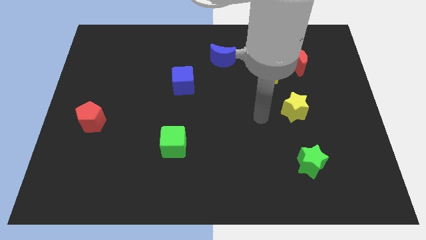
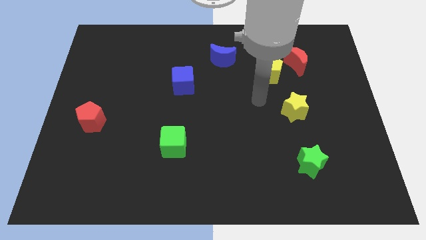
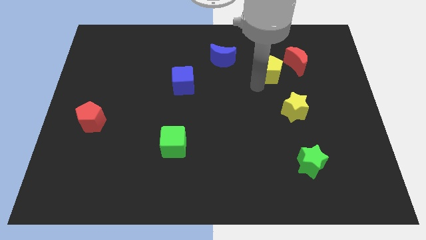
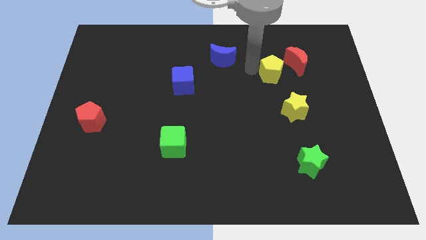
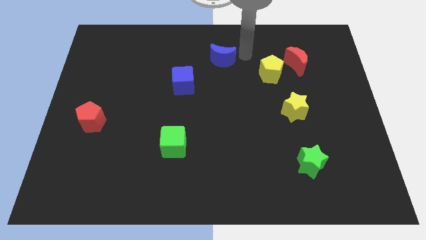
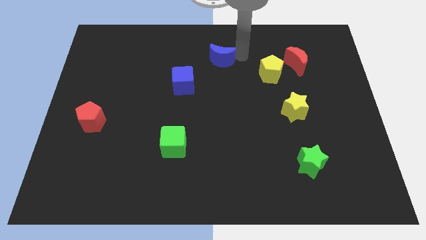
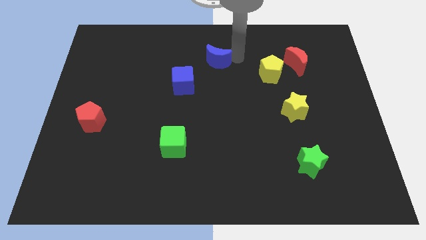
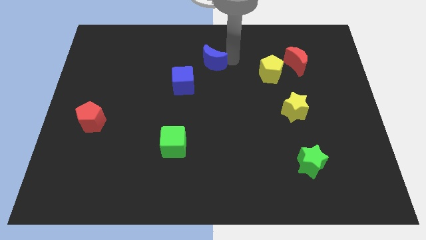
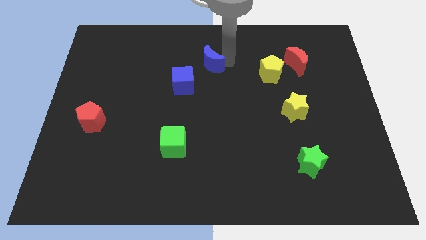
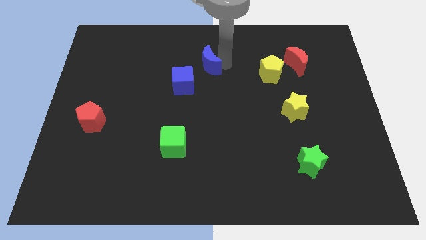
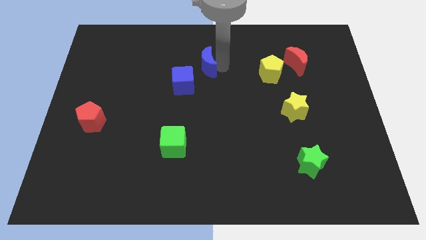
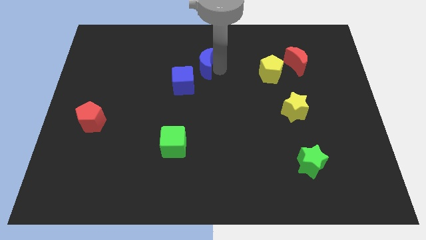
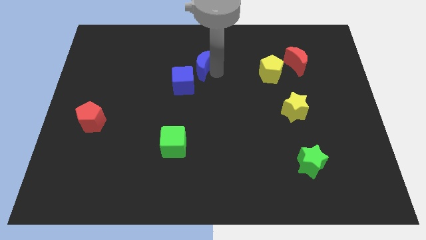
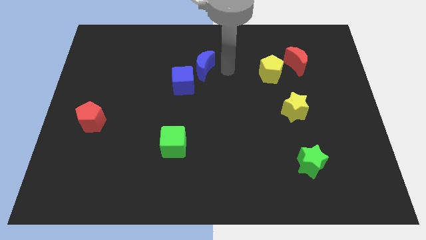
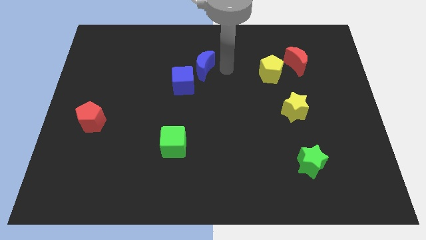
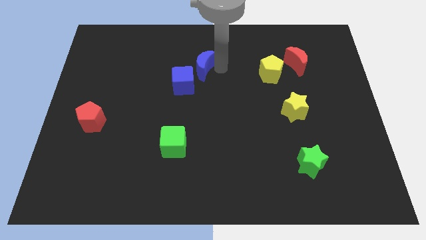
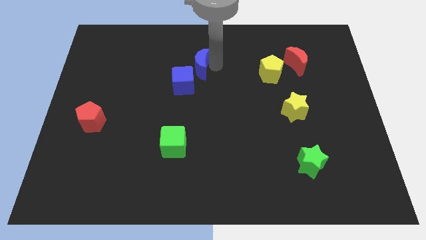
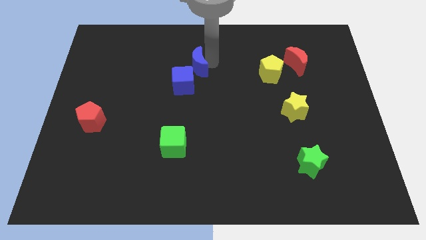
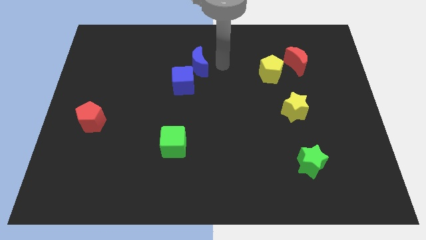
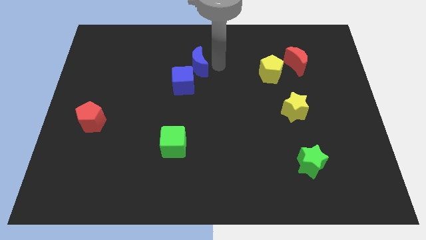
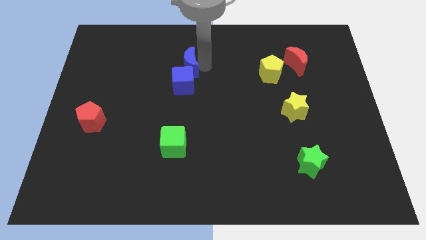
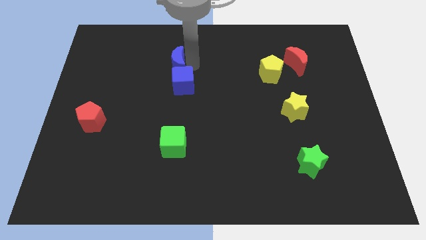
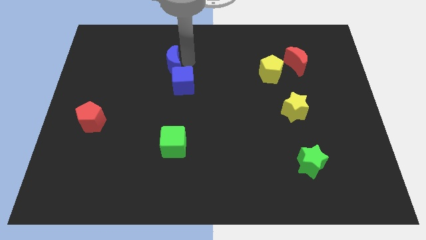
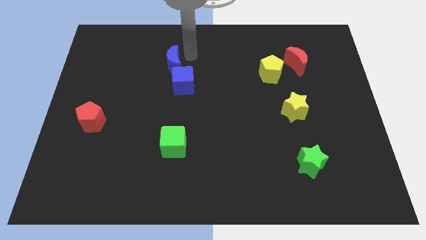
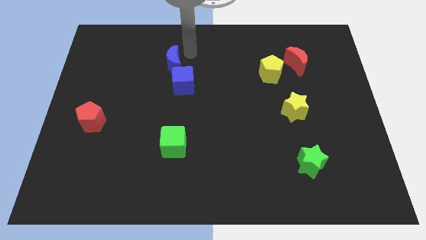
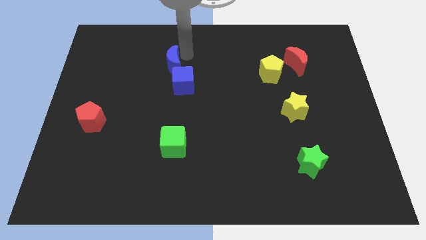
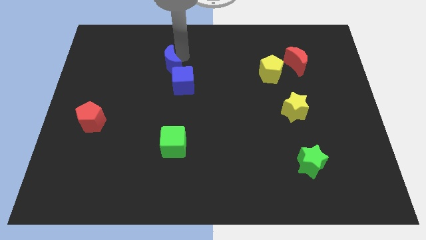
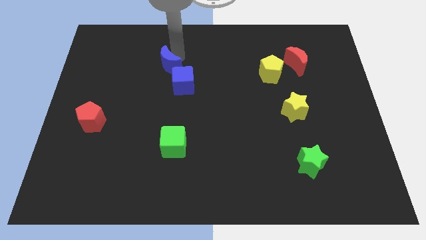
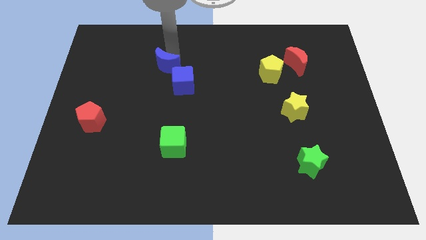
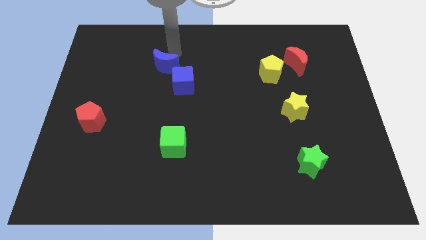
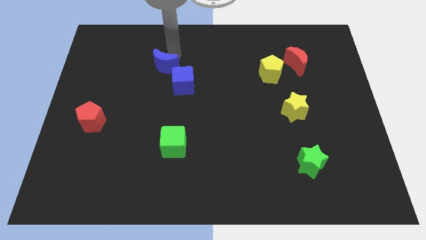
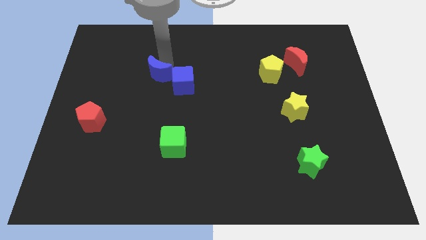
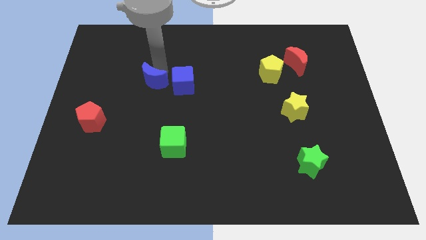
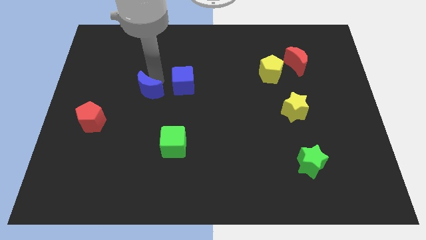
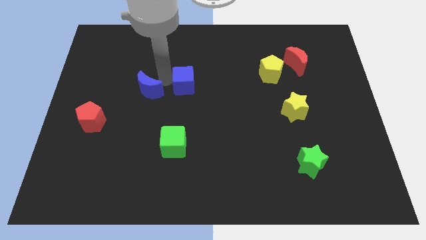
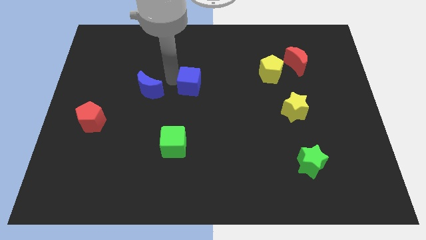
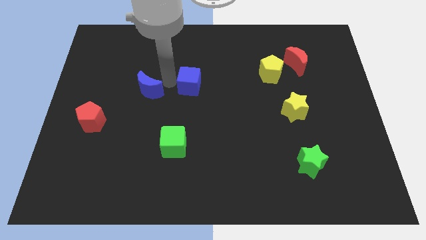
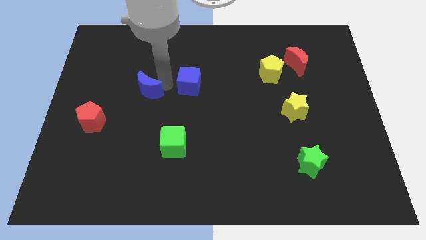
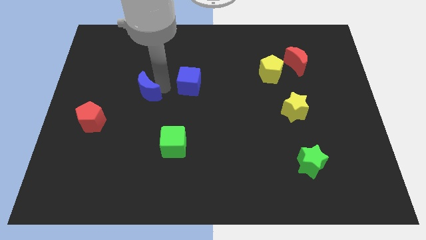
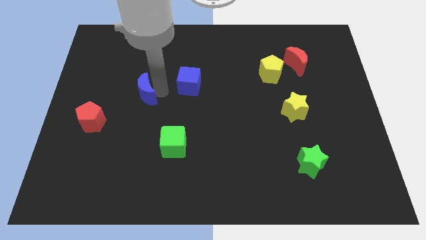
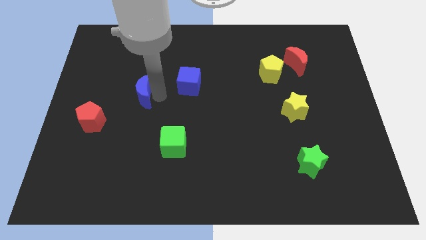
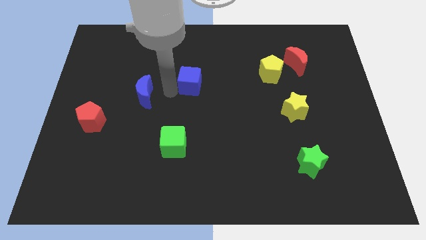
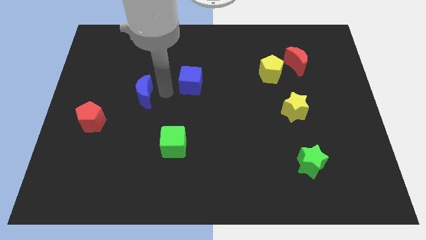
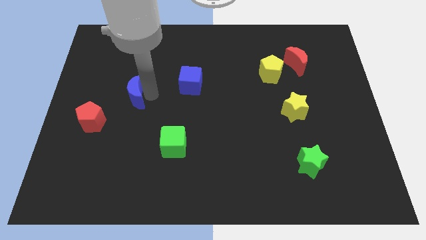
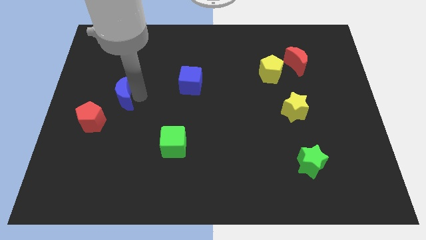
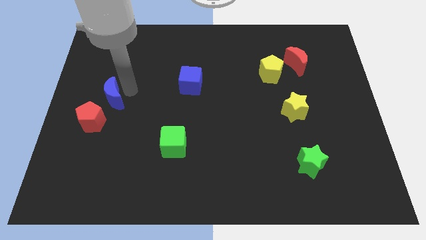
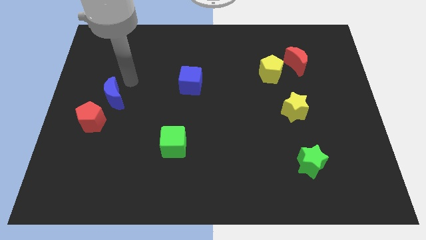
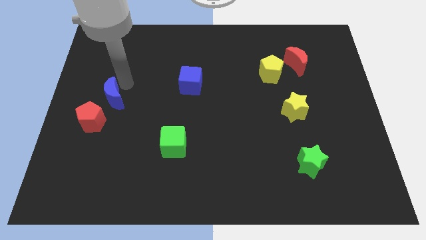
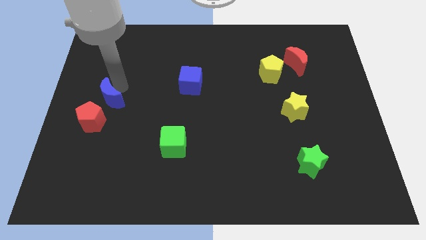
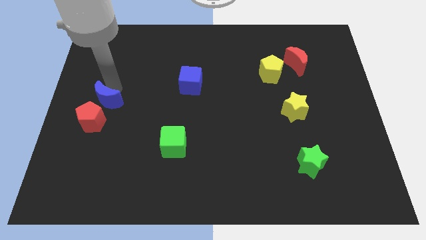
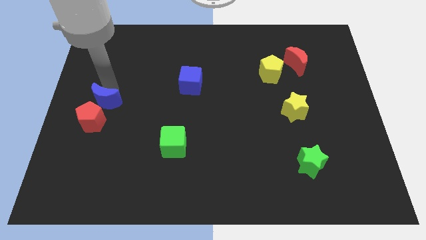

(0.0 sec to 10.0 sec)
put the blue moon close to the red pentagon

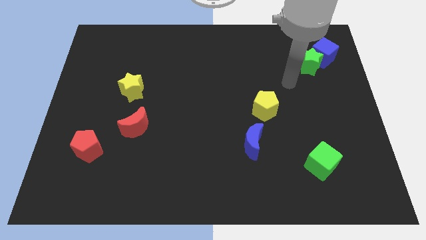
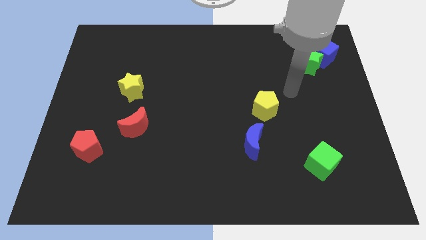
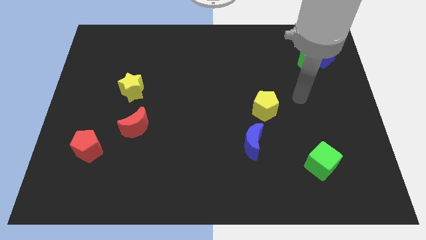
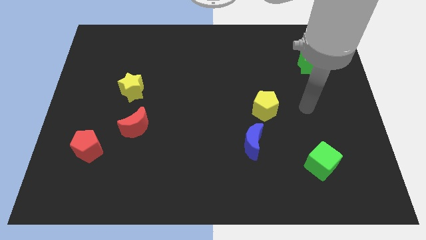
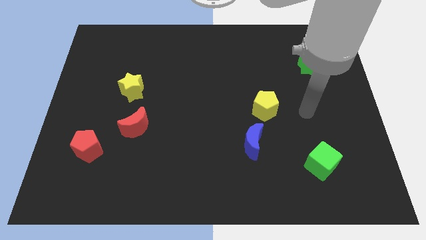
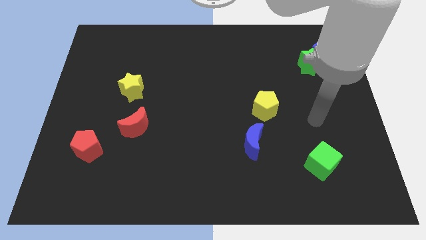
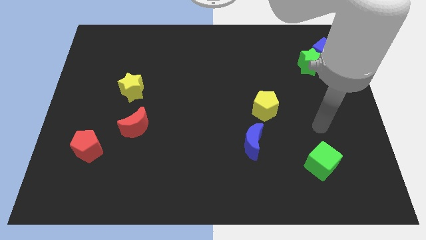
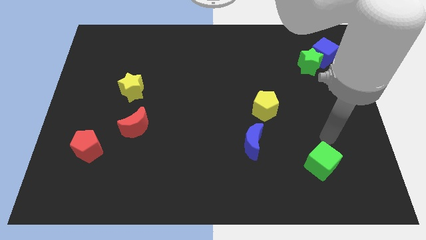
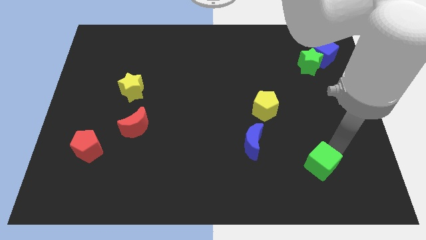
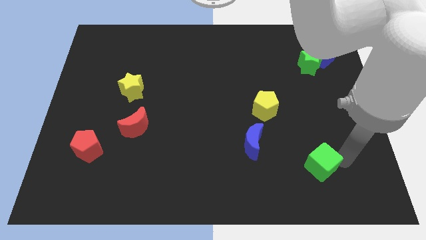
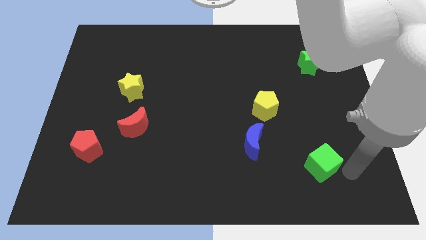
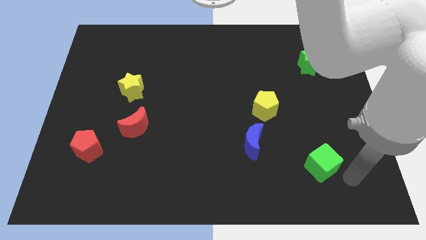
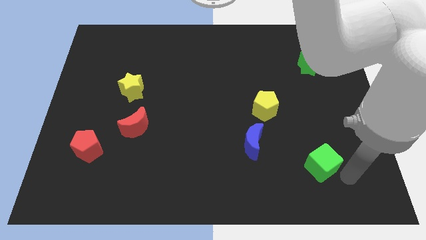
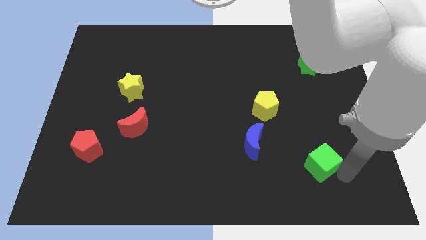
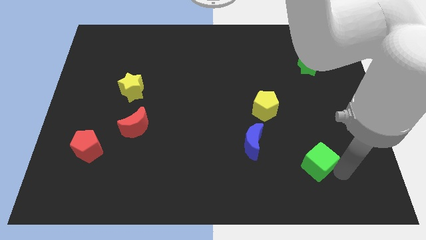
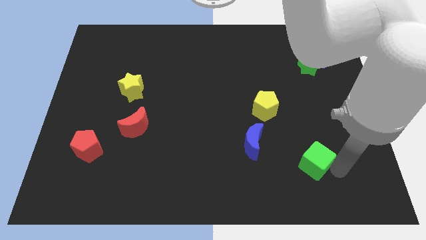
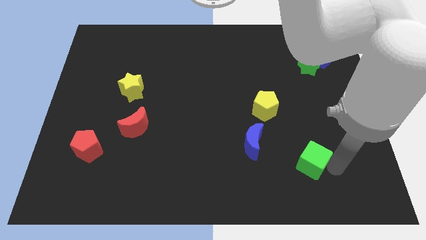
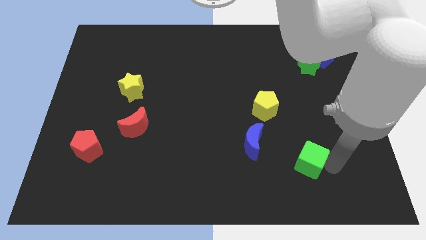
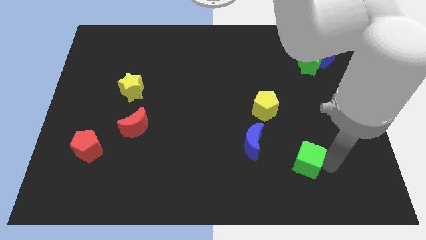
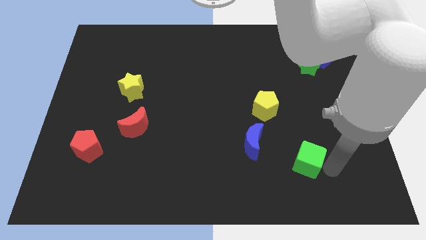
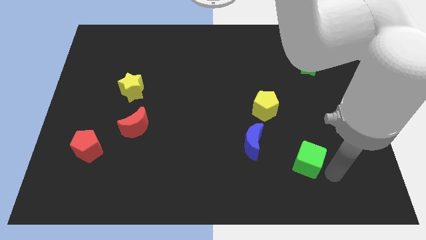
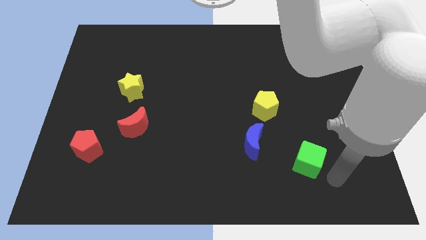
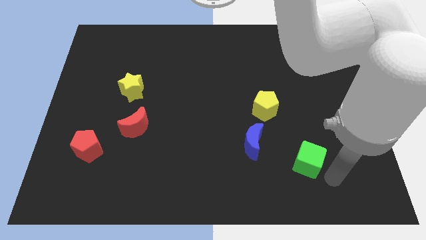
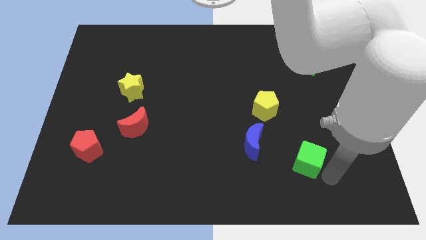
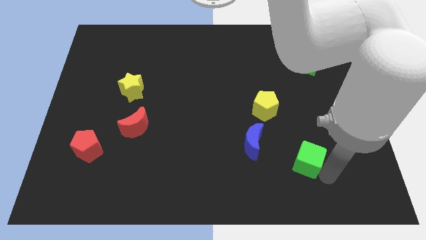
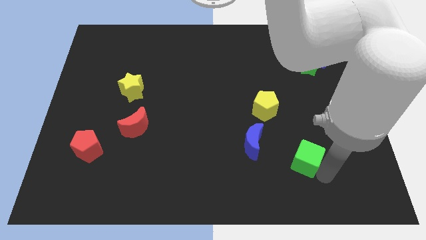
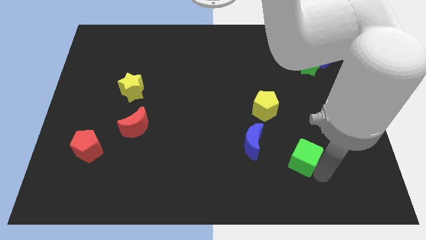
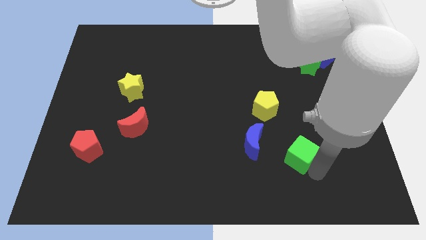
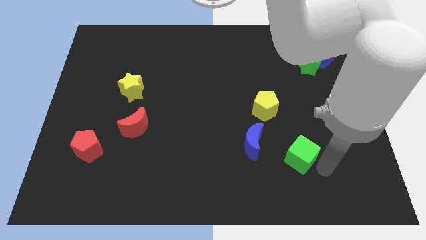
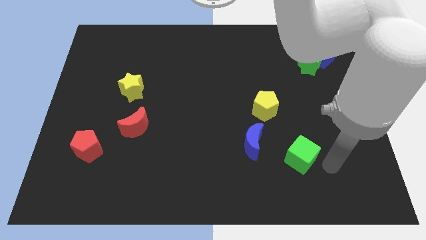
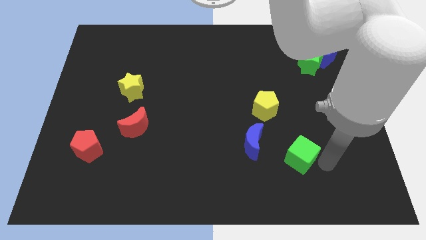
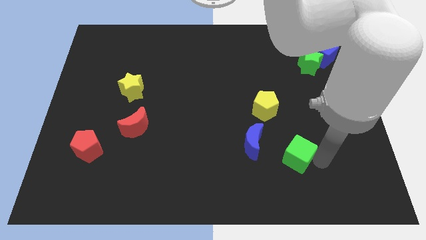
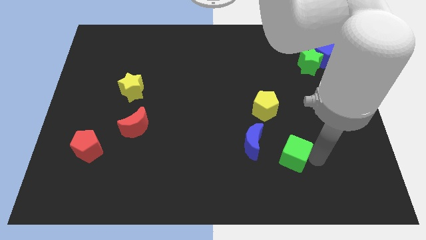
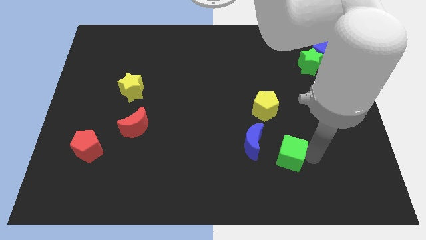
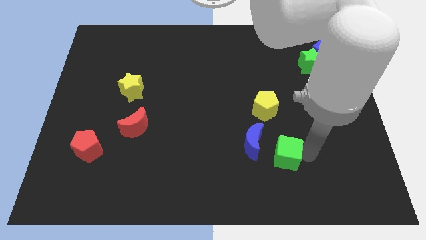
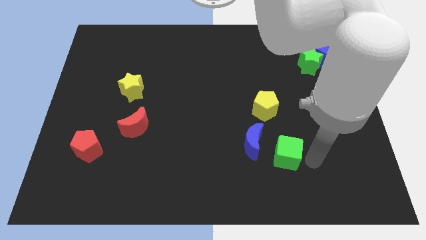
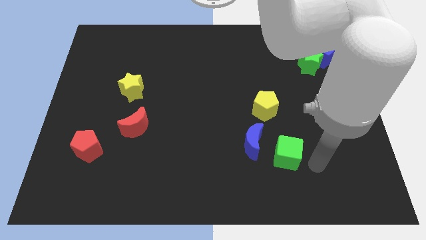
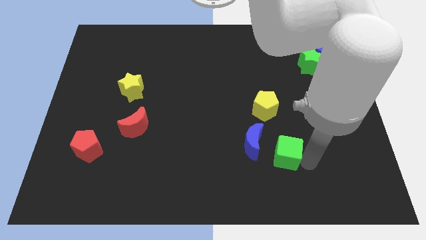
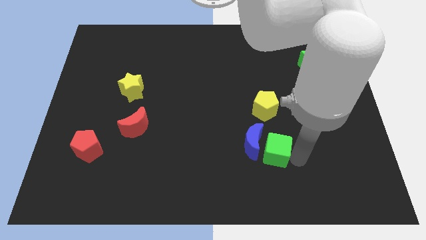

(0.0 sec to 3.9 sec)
put the green cube to the blue moon
